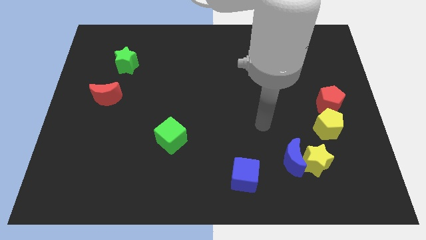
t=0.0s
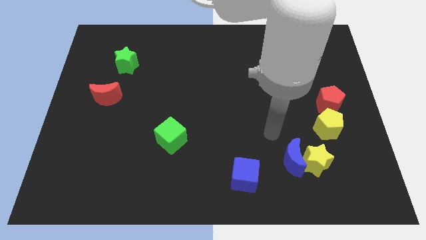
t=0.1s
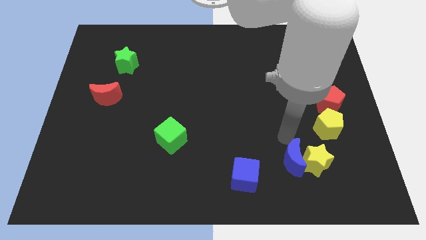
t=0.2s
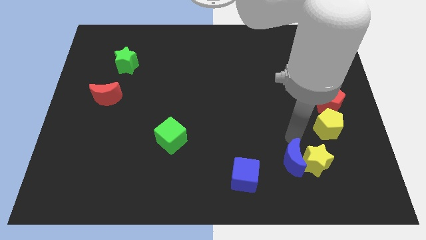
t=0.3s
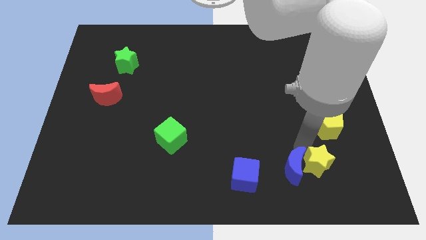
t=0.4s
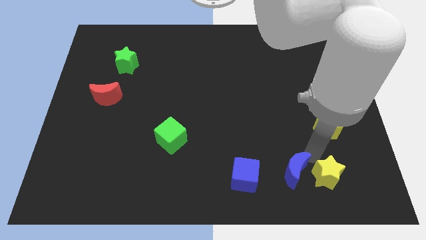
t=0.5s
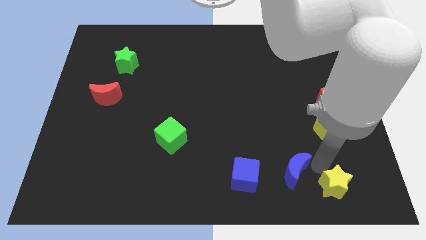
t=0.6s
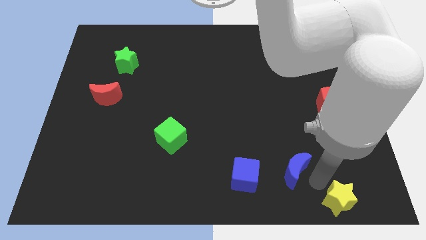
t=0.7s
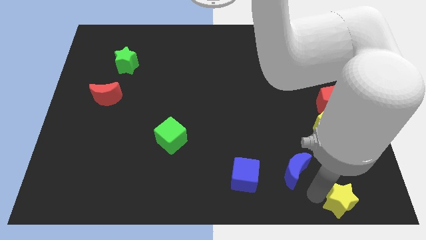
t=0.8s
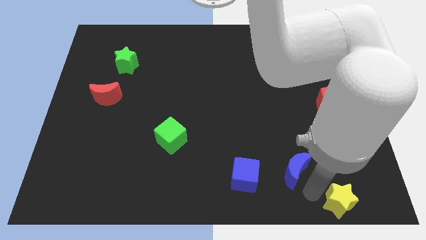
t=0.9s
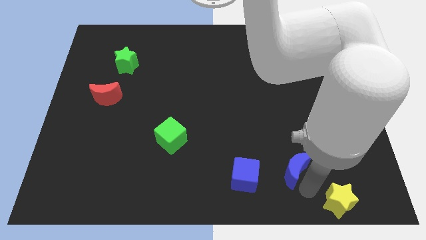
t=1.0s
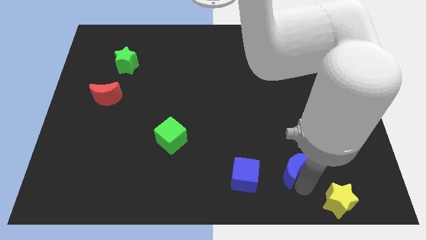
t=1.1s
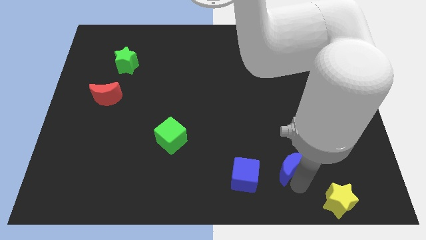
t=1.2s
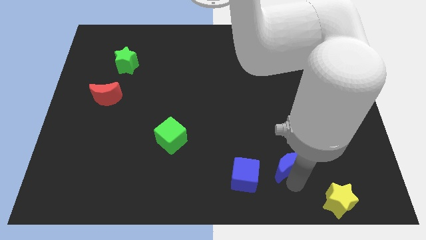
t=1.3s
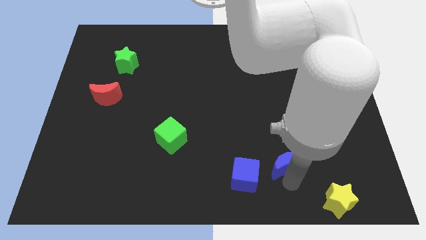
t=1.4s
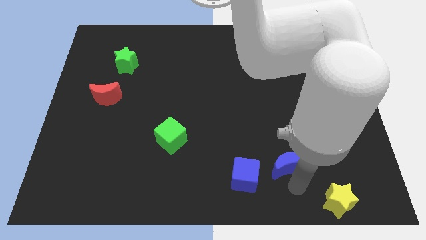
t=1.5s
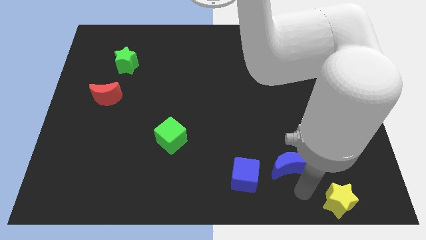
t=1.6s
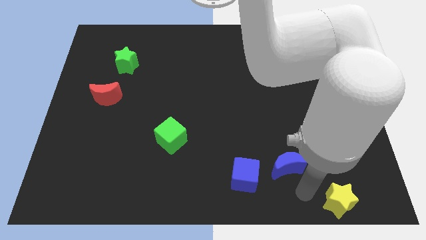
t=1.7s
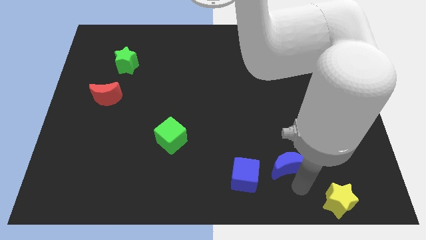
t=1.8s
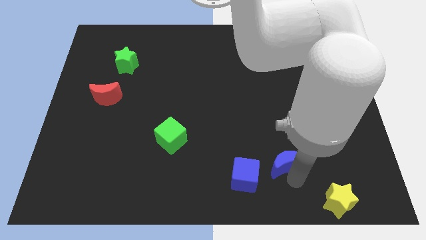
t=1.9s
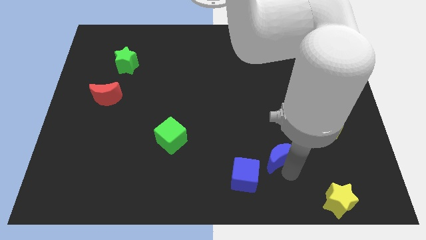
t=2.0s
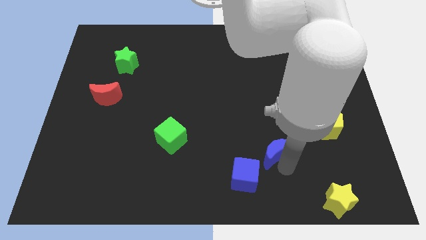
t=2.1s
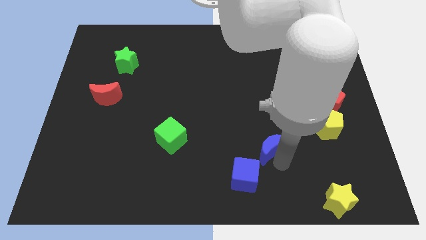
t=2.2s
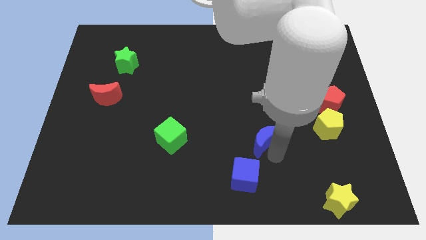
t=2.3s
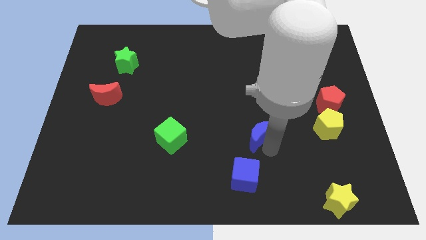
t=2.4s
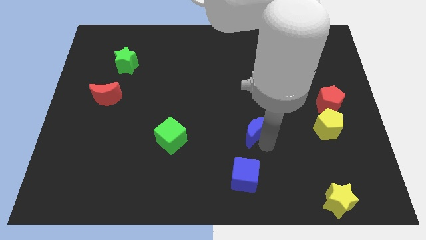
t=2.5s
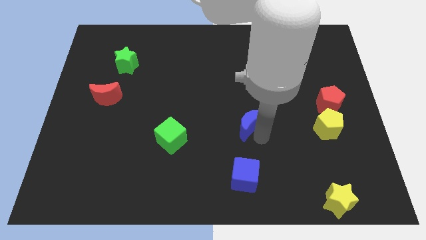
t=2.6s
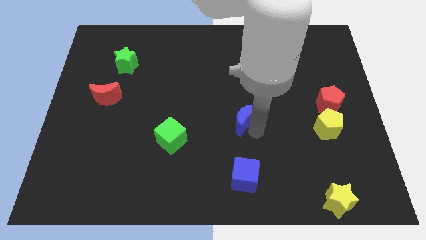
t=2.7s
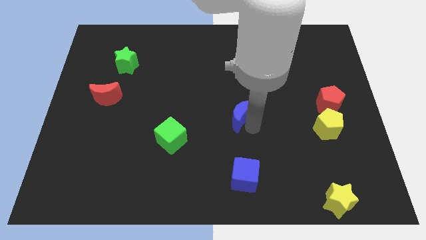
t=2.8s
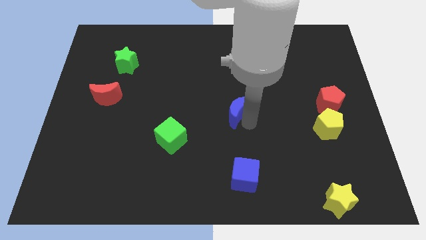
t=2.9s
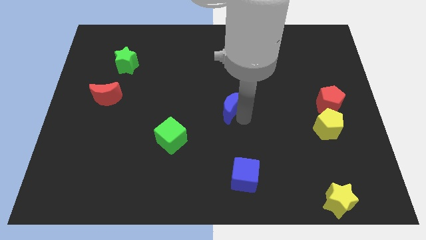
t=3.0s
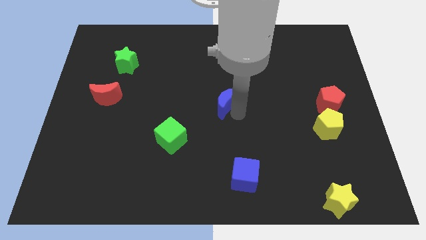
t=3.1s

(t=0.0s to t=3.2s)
slide the blue moon diagonally upwards and to the left

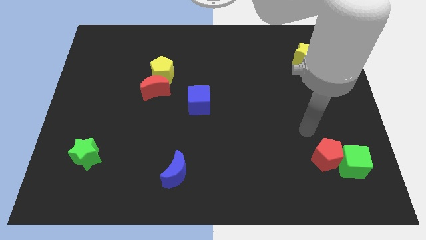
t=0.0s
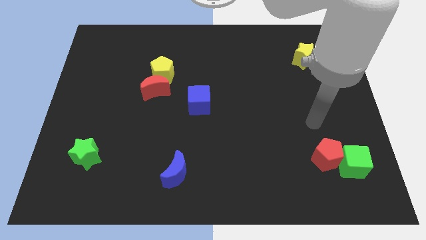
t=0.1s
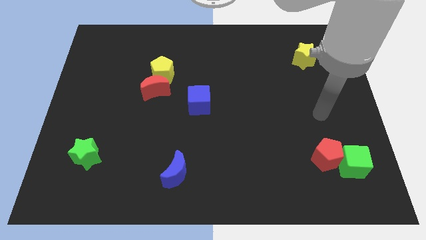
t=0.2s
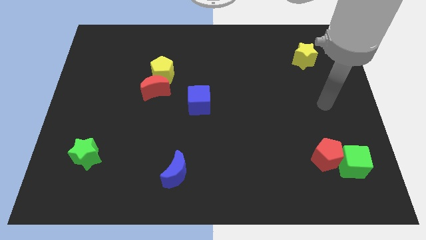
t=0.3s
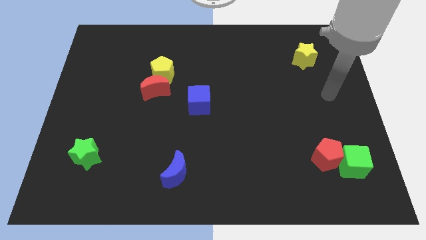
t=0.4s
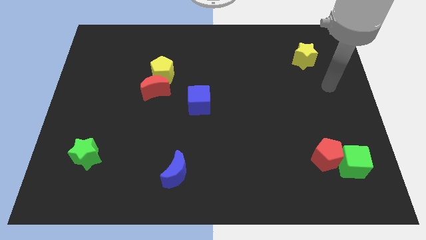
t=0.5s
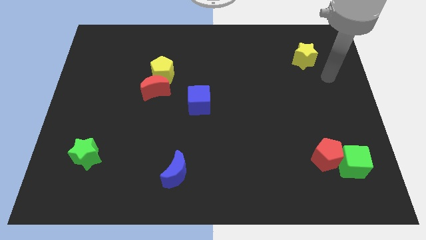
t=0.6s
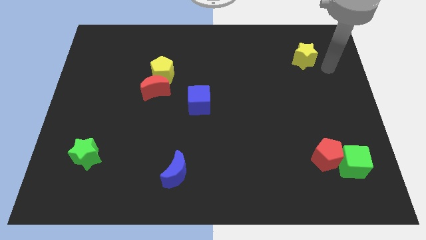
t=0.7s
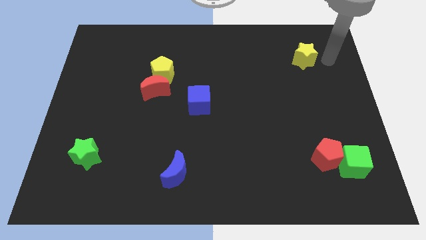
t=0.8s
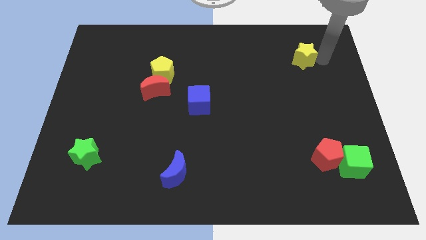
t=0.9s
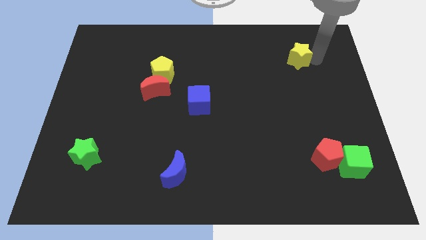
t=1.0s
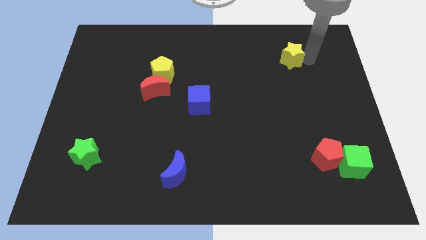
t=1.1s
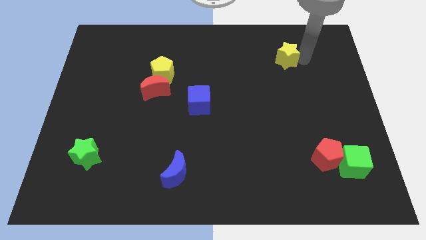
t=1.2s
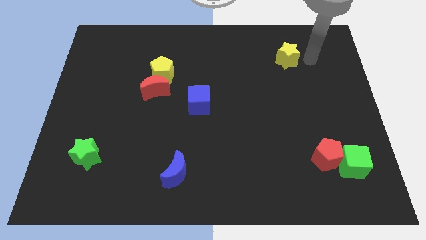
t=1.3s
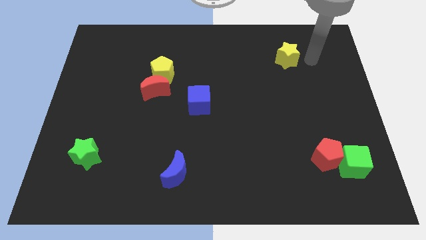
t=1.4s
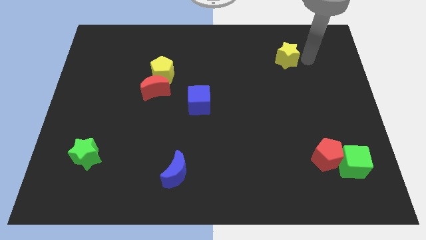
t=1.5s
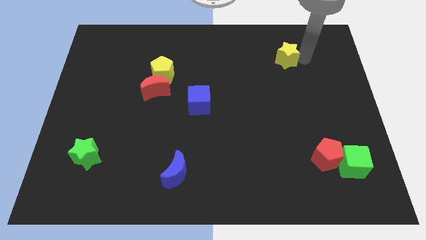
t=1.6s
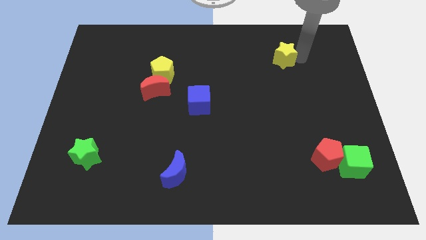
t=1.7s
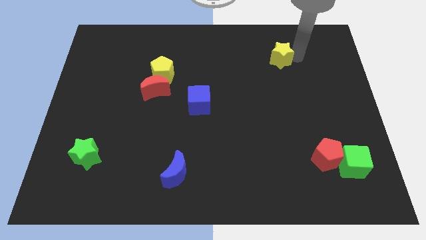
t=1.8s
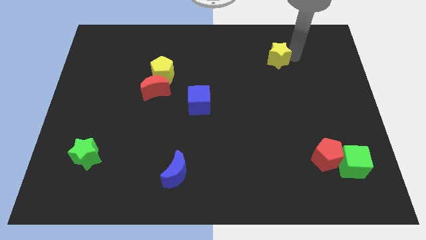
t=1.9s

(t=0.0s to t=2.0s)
push the yellow star slightly left

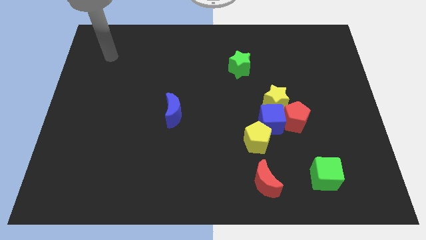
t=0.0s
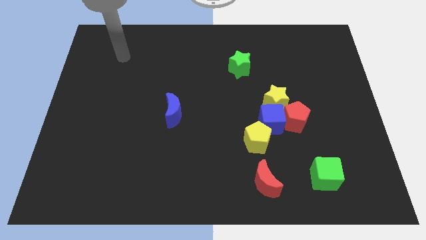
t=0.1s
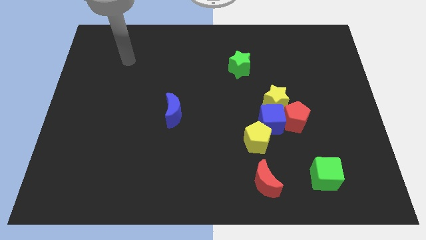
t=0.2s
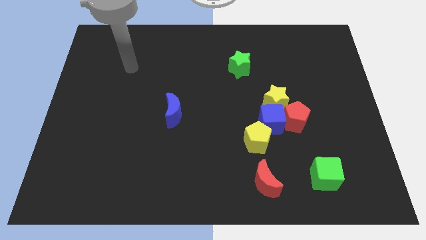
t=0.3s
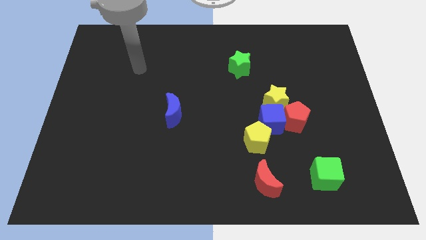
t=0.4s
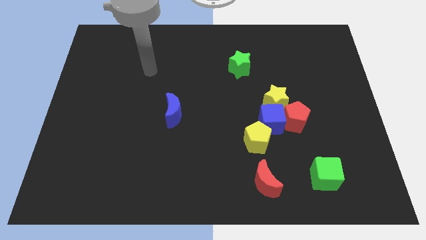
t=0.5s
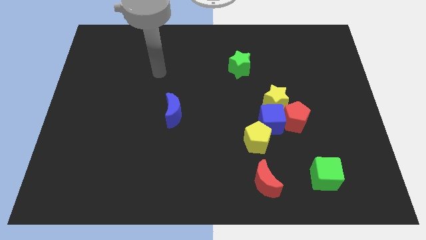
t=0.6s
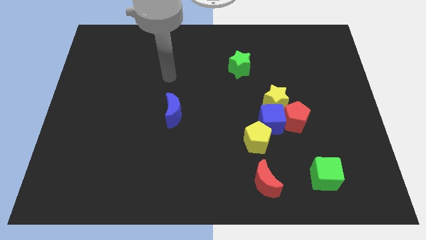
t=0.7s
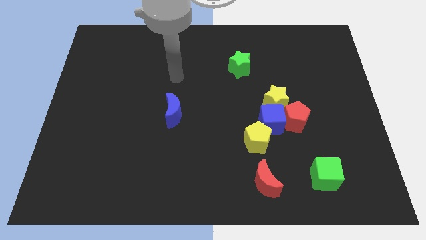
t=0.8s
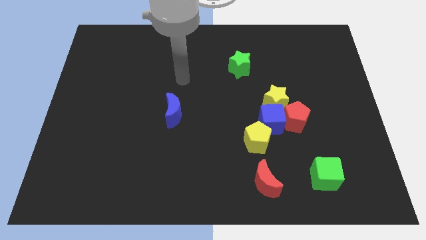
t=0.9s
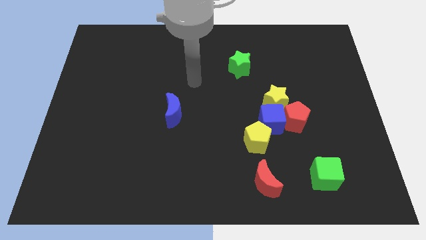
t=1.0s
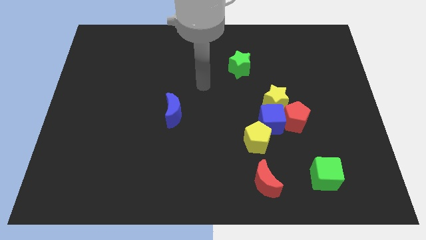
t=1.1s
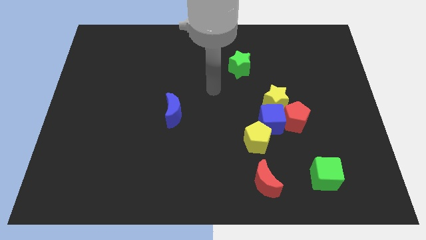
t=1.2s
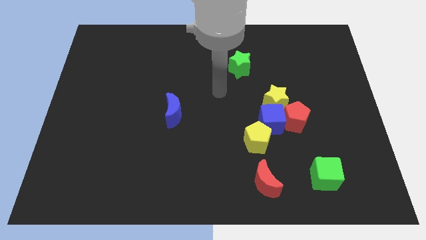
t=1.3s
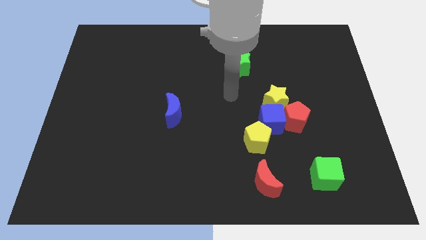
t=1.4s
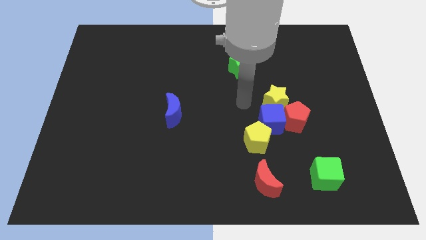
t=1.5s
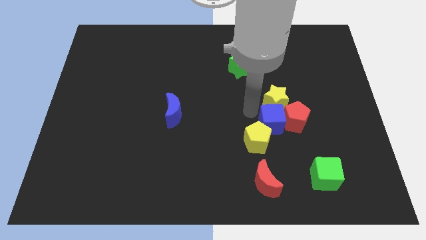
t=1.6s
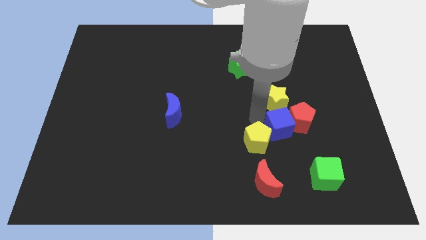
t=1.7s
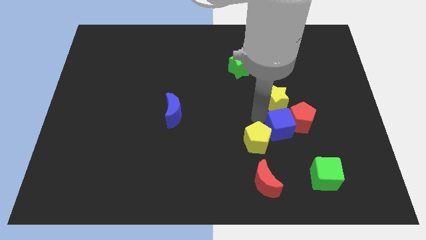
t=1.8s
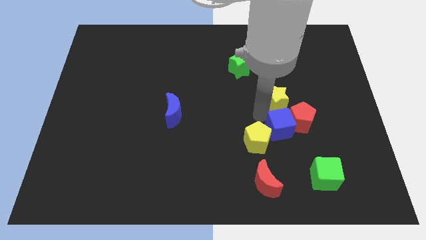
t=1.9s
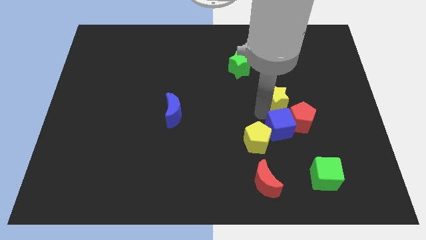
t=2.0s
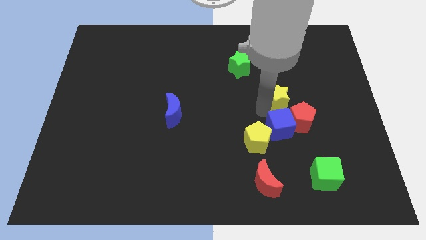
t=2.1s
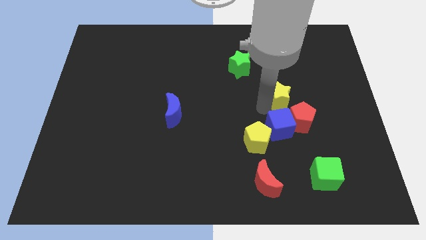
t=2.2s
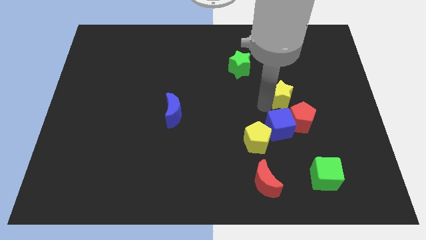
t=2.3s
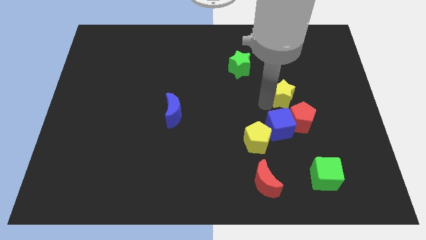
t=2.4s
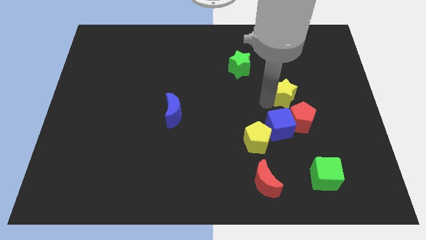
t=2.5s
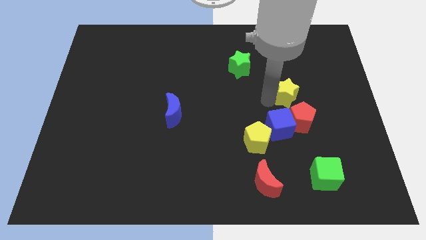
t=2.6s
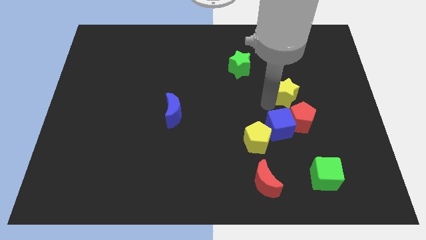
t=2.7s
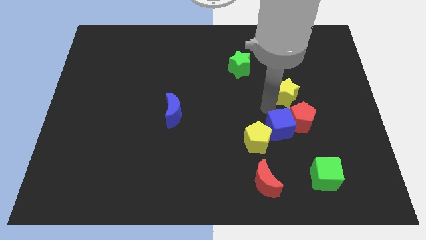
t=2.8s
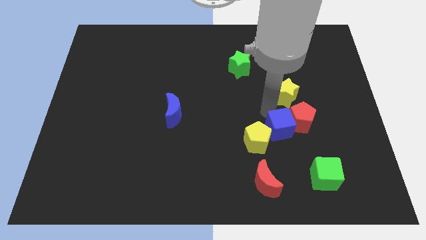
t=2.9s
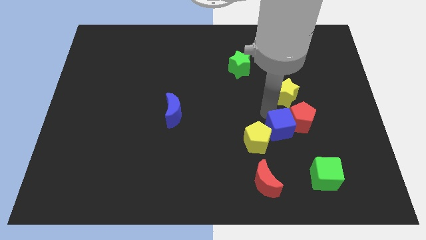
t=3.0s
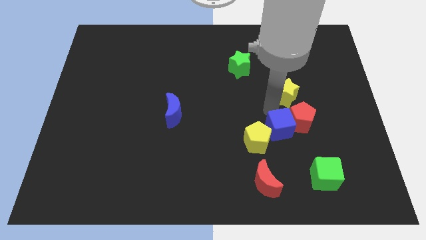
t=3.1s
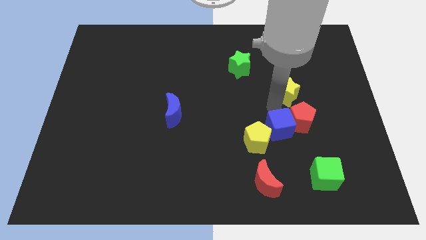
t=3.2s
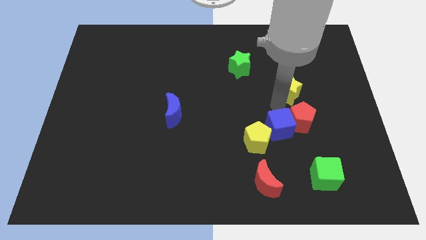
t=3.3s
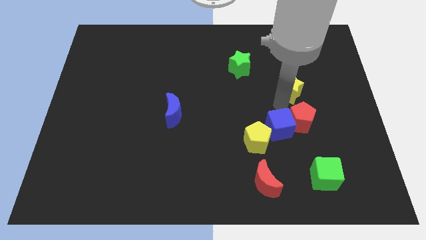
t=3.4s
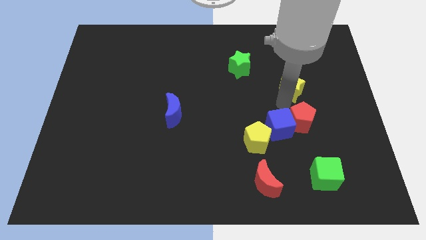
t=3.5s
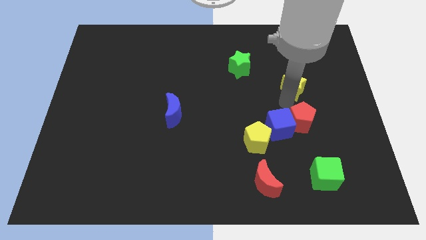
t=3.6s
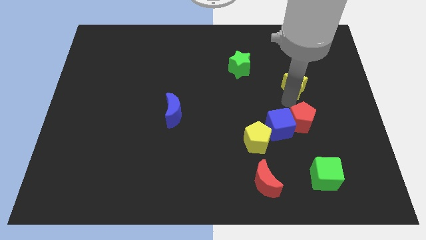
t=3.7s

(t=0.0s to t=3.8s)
slightly push the yellow star diagonally upwards and right
